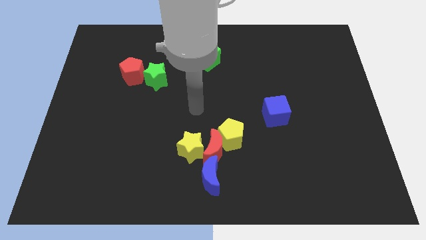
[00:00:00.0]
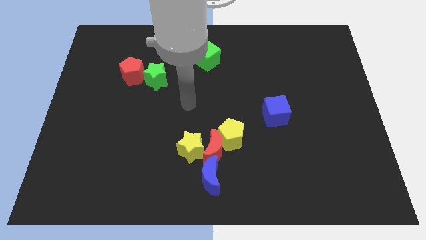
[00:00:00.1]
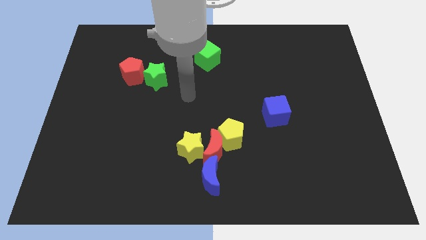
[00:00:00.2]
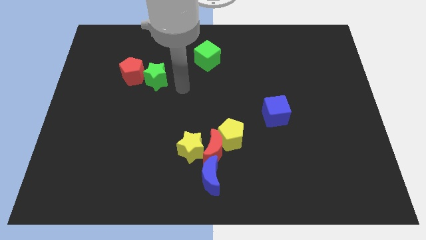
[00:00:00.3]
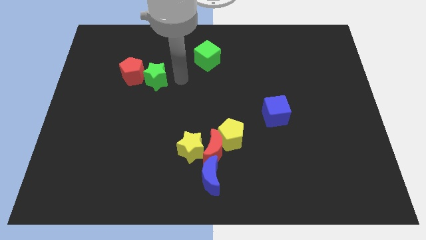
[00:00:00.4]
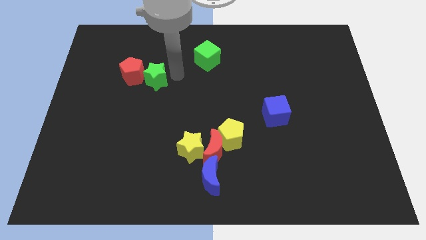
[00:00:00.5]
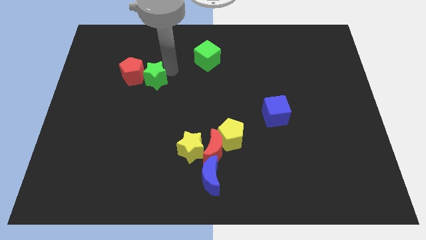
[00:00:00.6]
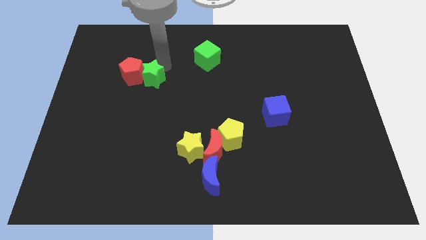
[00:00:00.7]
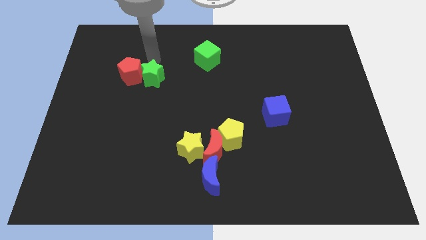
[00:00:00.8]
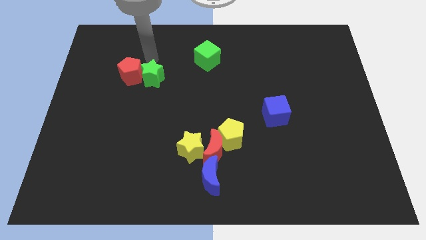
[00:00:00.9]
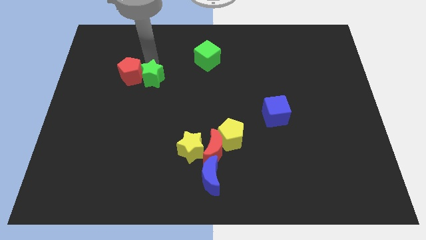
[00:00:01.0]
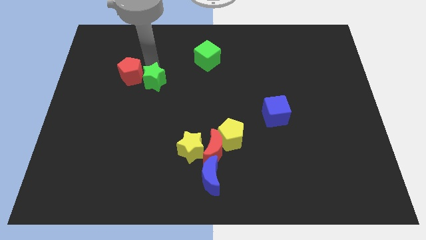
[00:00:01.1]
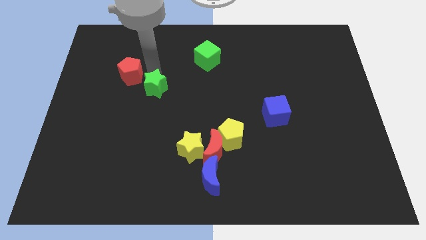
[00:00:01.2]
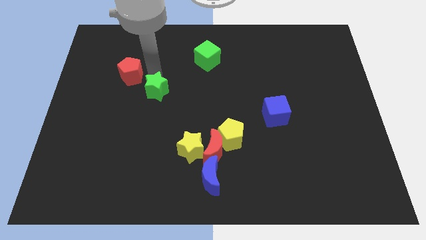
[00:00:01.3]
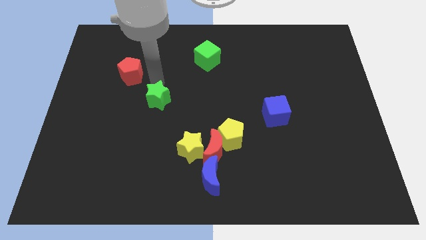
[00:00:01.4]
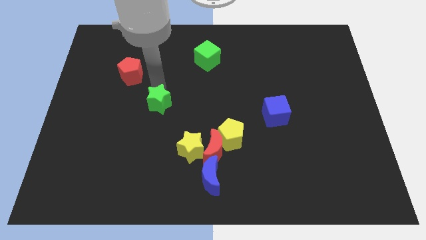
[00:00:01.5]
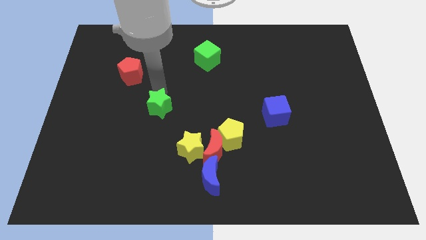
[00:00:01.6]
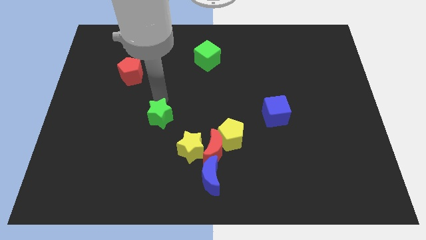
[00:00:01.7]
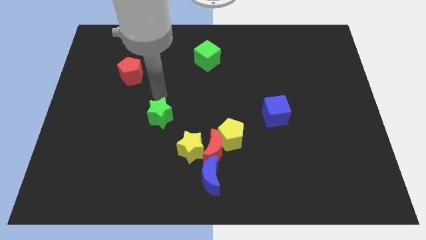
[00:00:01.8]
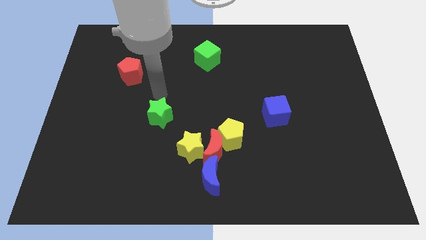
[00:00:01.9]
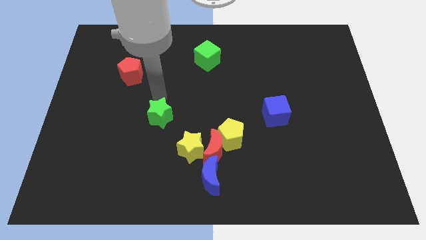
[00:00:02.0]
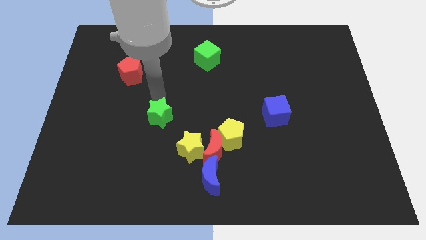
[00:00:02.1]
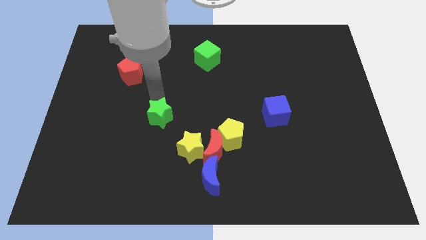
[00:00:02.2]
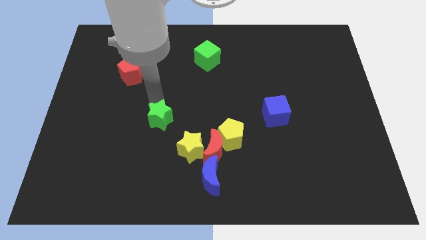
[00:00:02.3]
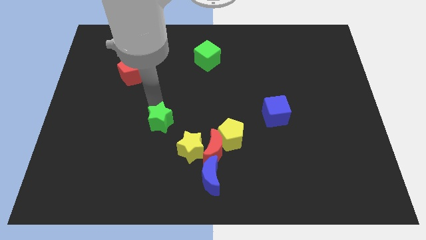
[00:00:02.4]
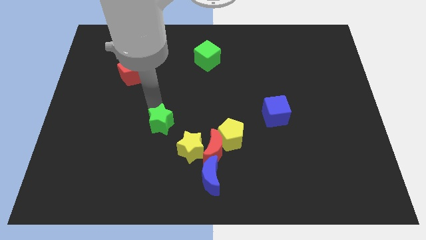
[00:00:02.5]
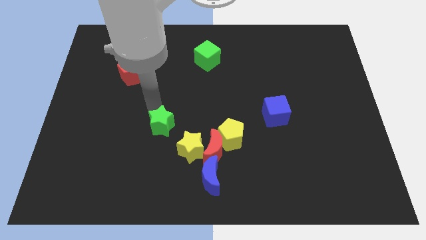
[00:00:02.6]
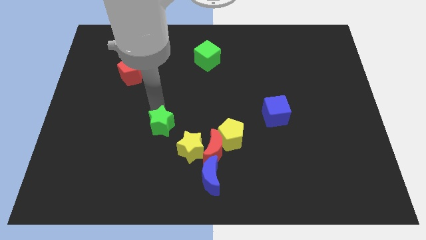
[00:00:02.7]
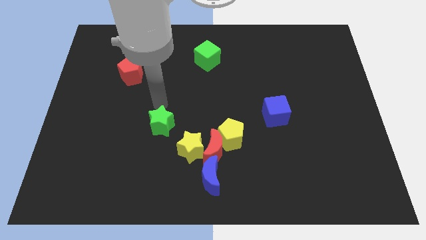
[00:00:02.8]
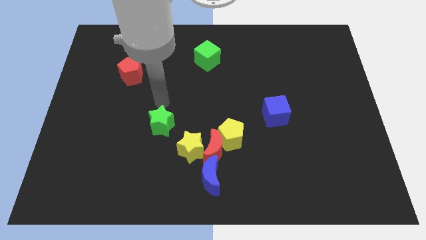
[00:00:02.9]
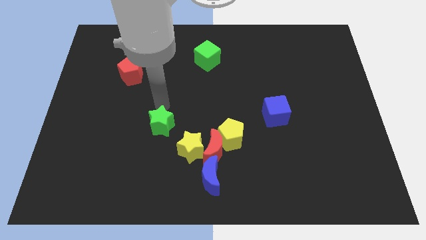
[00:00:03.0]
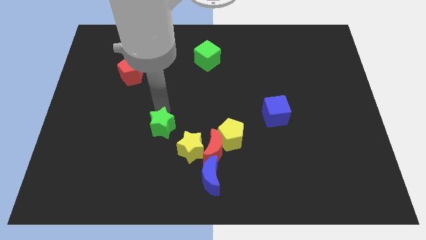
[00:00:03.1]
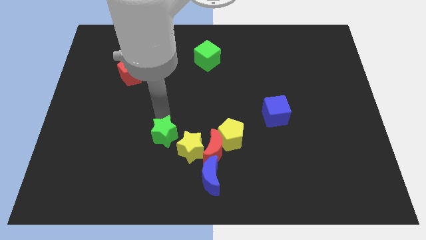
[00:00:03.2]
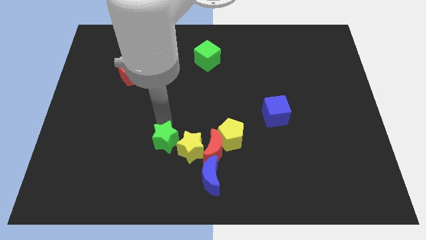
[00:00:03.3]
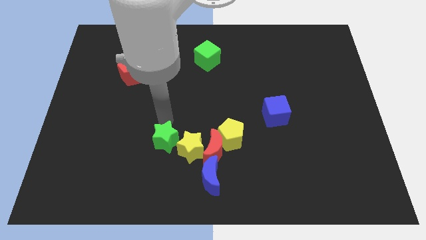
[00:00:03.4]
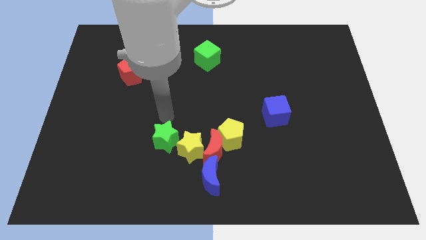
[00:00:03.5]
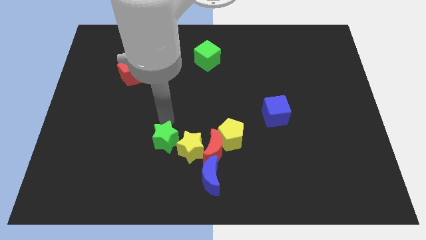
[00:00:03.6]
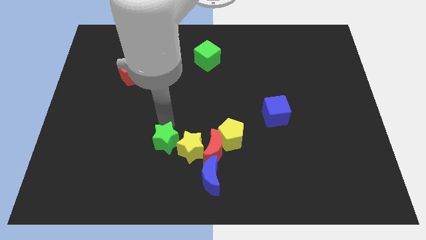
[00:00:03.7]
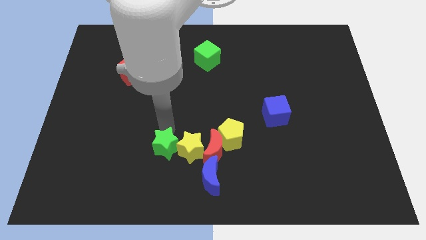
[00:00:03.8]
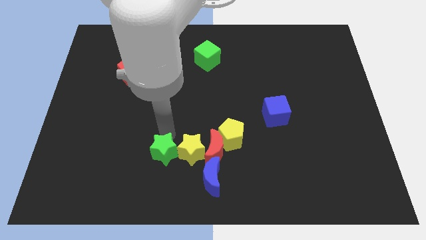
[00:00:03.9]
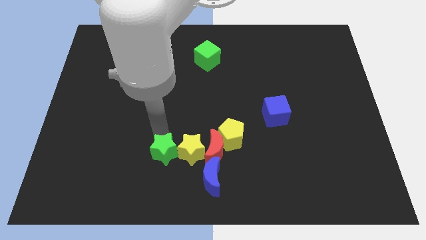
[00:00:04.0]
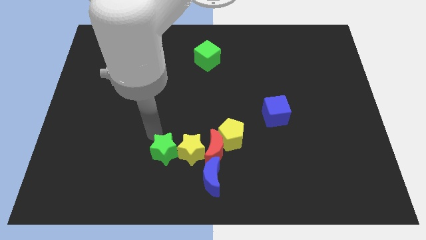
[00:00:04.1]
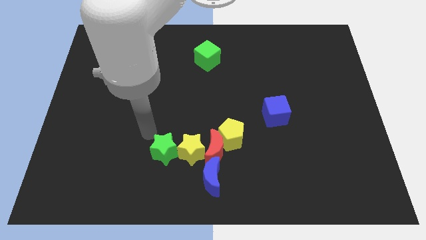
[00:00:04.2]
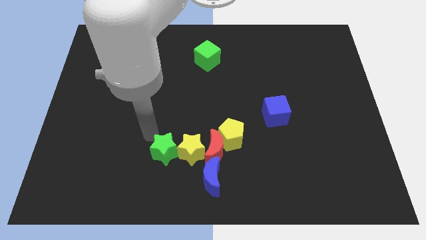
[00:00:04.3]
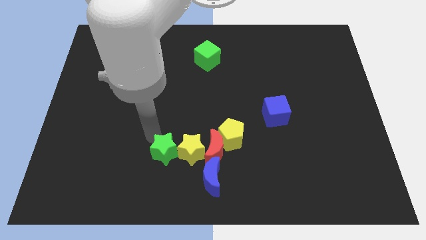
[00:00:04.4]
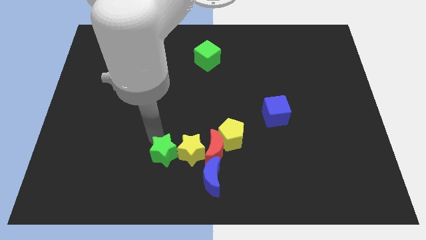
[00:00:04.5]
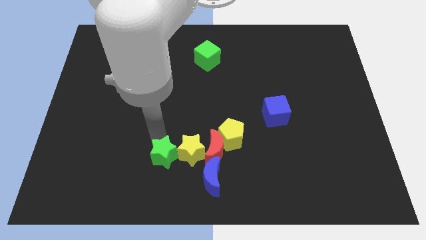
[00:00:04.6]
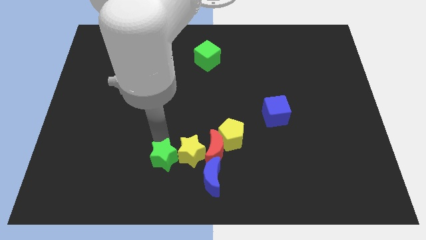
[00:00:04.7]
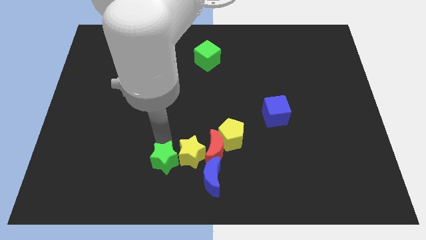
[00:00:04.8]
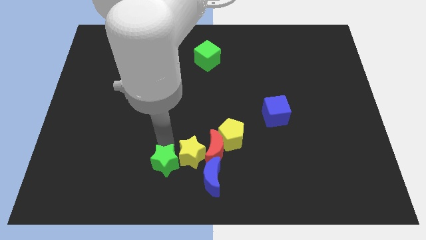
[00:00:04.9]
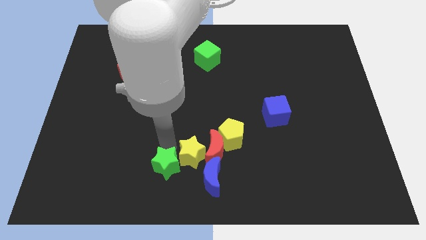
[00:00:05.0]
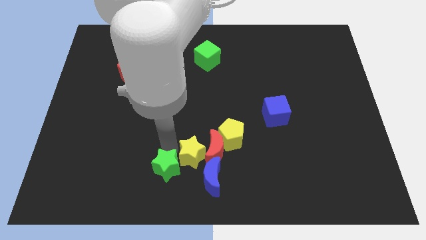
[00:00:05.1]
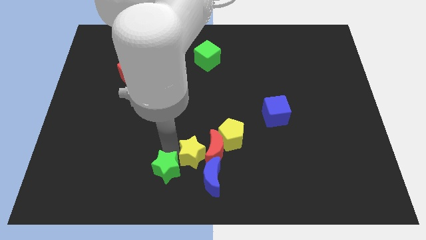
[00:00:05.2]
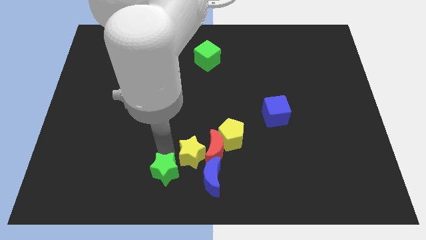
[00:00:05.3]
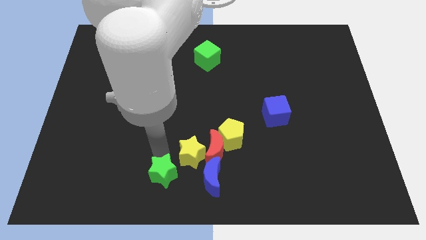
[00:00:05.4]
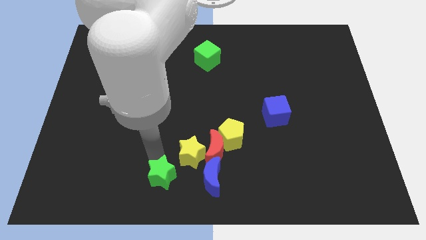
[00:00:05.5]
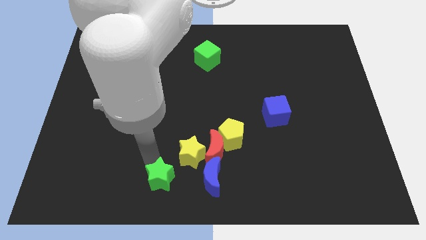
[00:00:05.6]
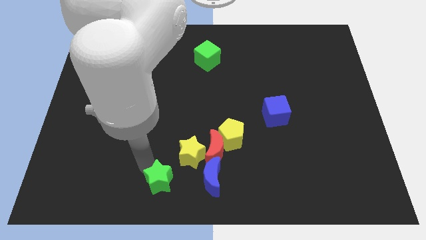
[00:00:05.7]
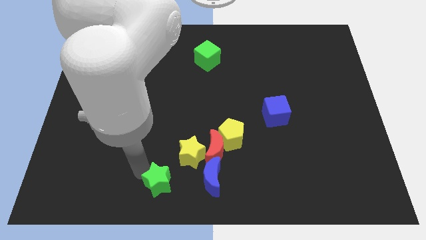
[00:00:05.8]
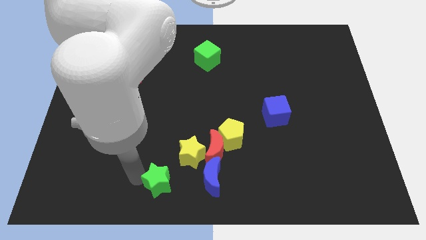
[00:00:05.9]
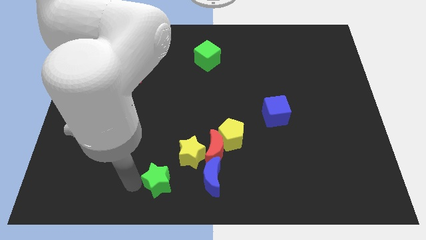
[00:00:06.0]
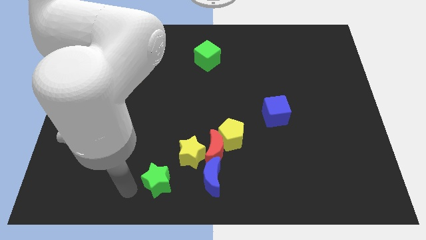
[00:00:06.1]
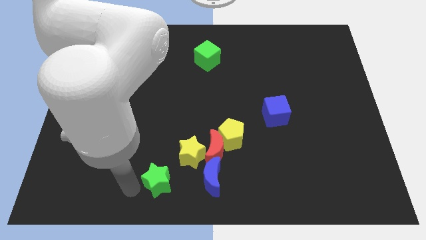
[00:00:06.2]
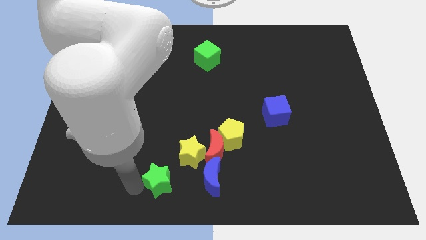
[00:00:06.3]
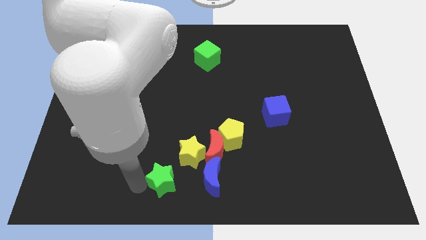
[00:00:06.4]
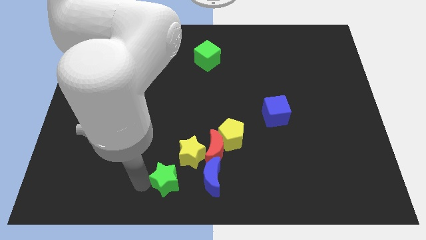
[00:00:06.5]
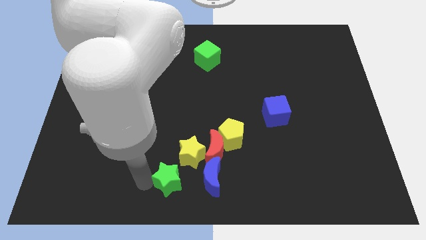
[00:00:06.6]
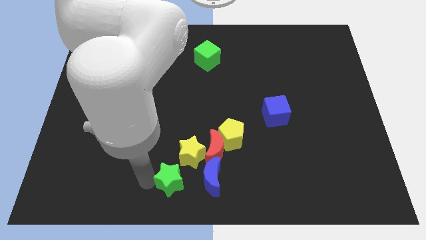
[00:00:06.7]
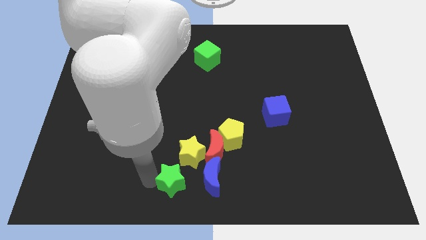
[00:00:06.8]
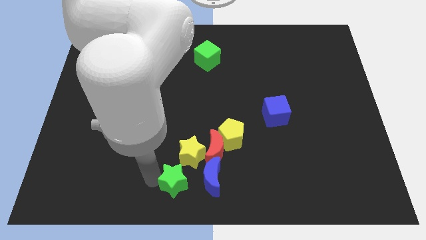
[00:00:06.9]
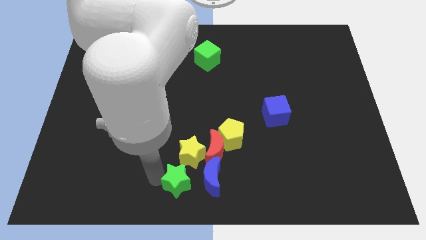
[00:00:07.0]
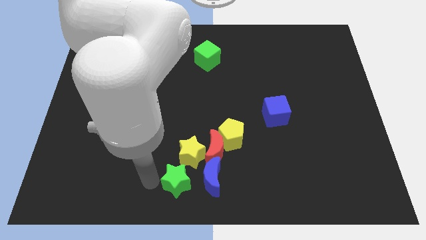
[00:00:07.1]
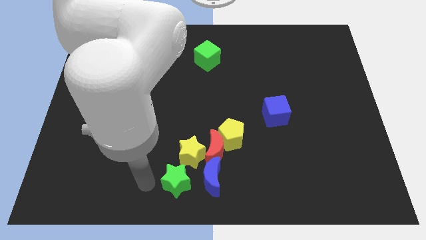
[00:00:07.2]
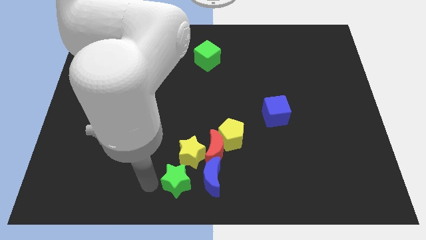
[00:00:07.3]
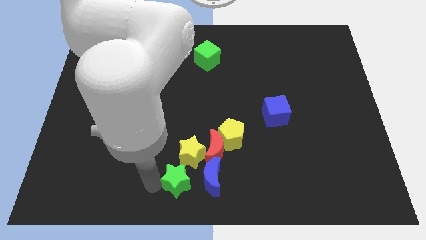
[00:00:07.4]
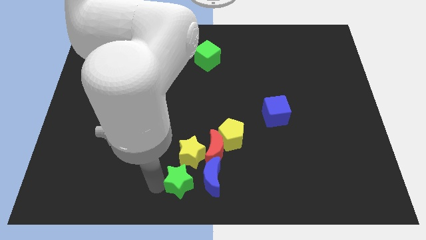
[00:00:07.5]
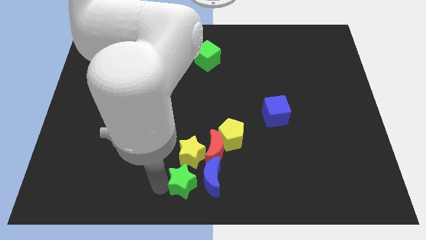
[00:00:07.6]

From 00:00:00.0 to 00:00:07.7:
slide the green star close to the blue moon
